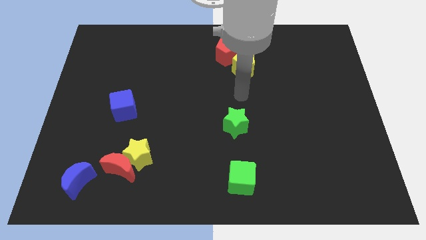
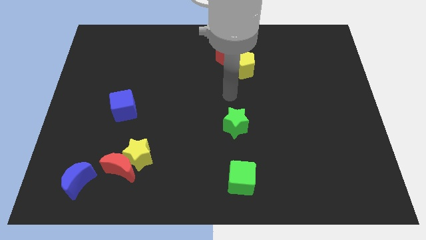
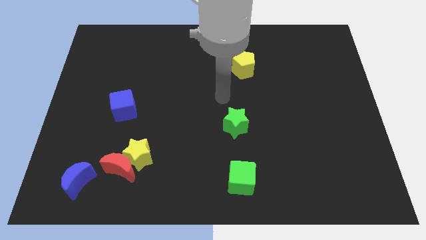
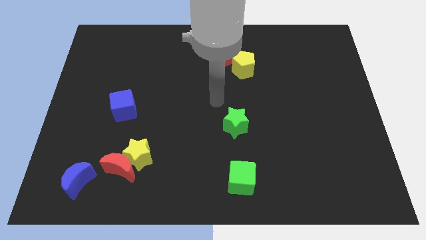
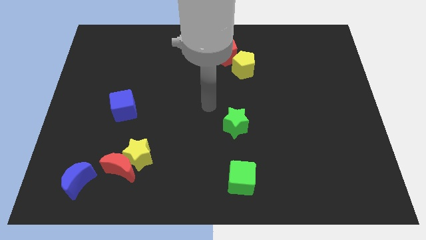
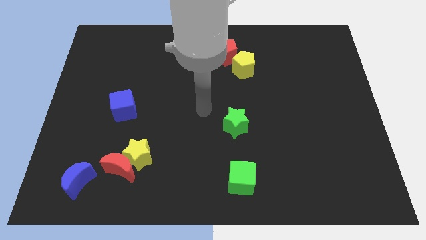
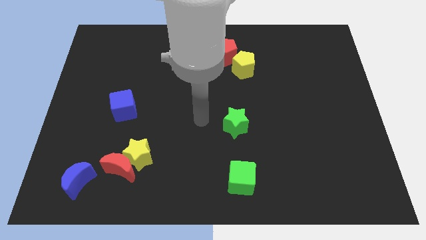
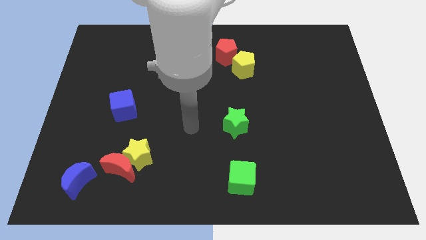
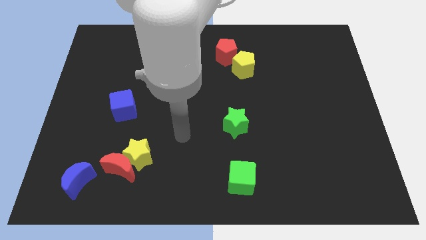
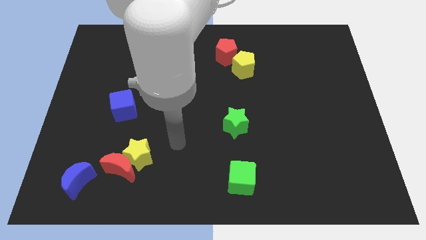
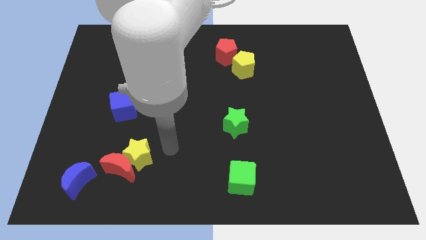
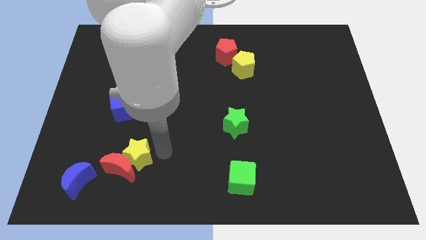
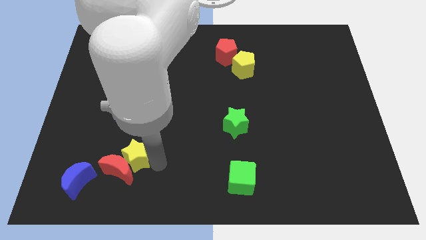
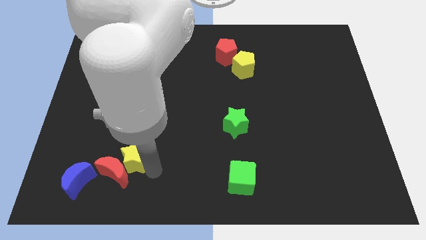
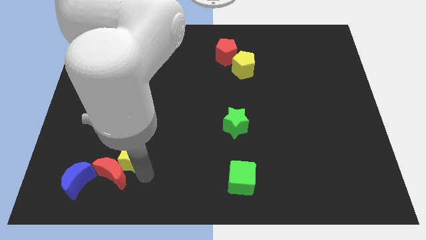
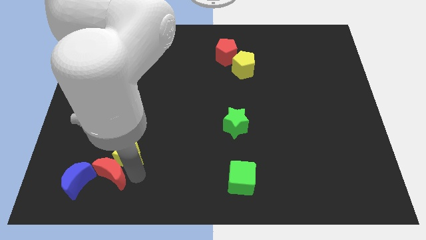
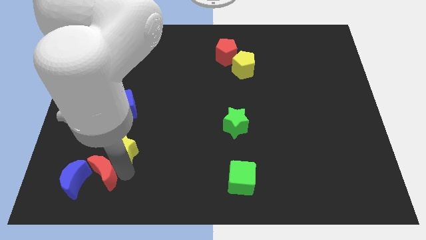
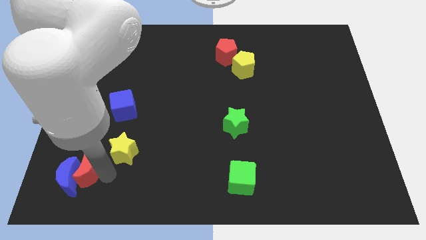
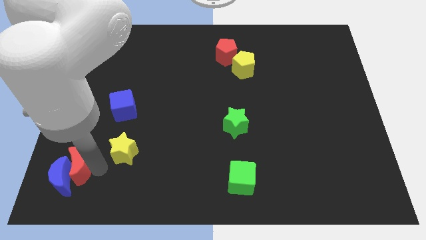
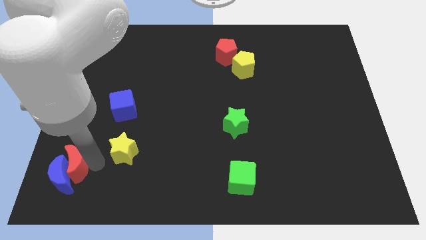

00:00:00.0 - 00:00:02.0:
move the yellow star away from the red moon

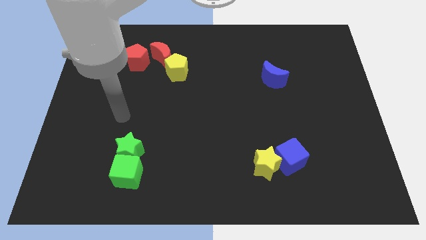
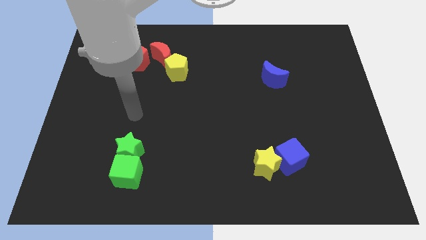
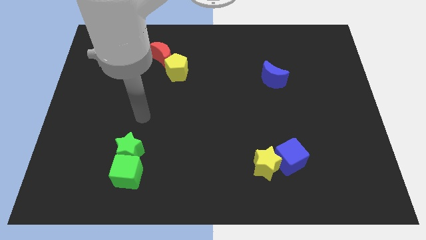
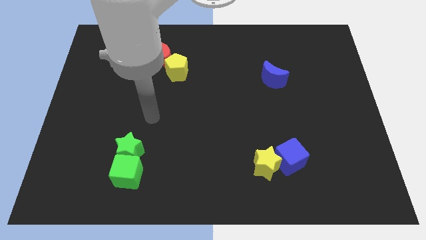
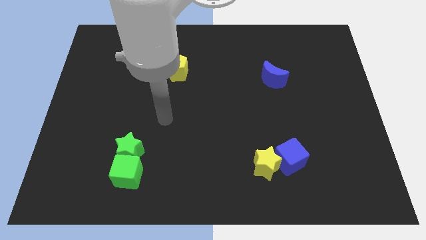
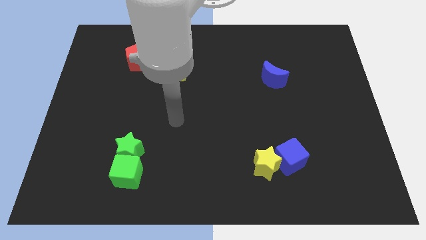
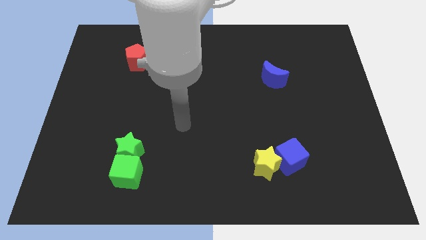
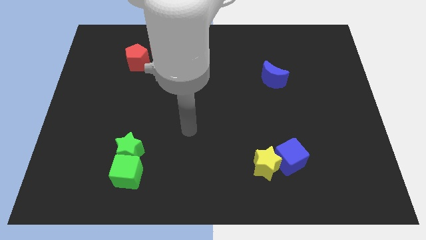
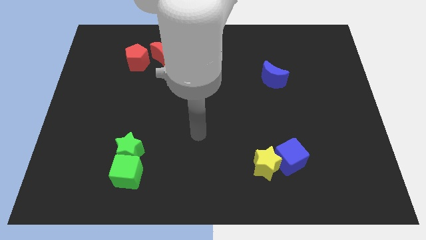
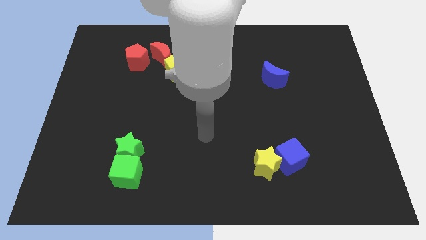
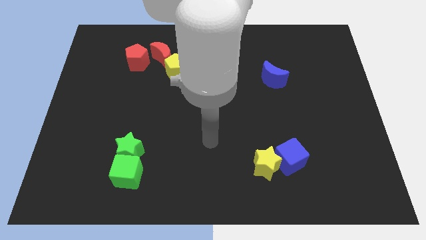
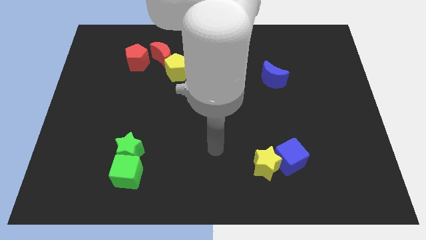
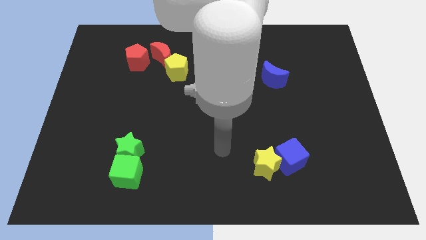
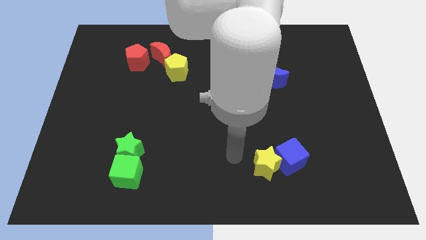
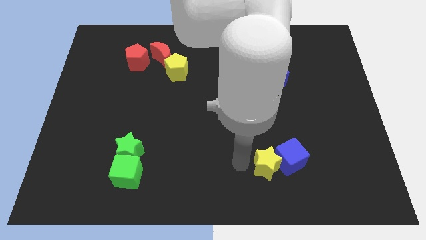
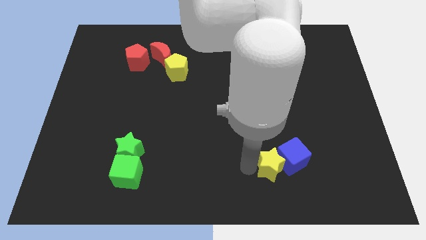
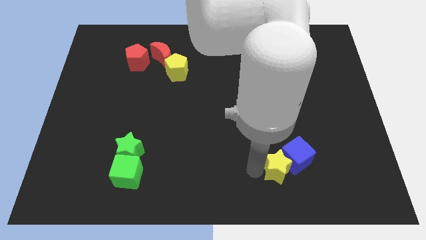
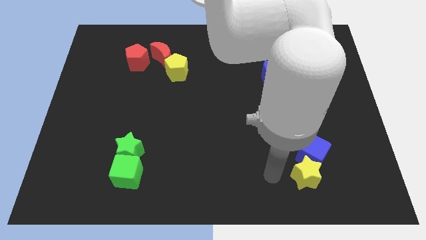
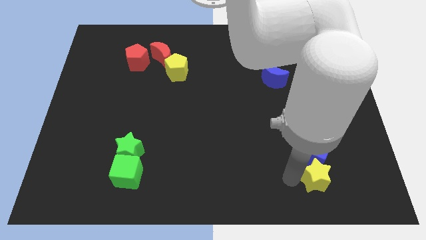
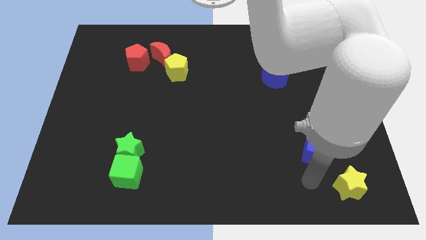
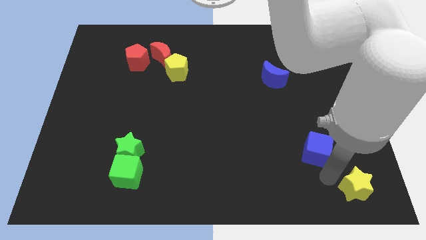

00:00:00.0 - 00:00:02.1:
pull the blue cube apart from the yellow star

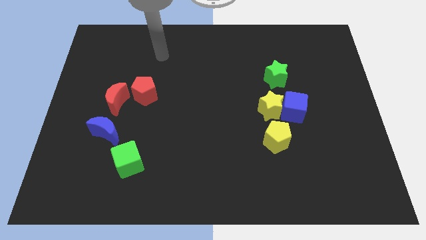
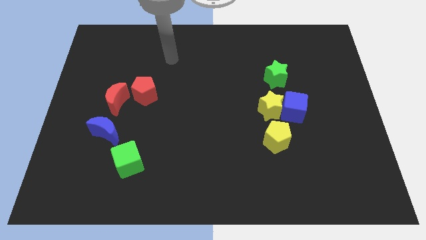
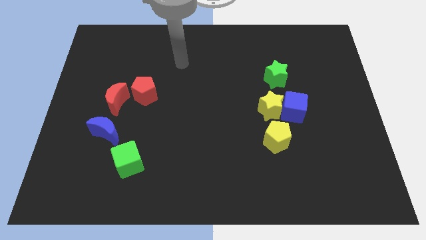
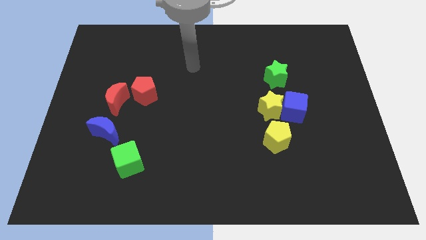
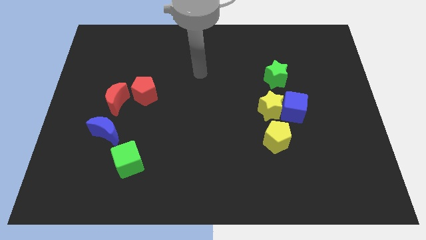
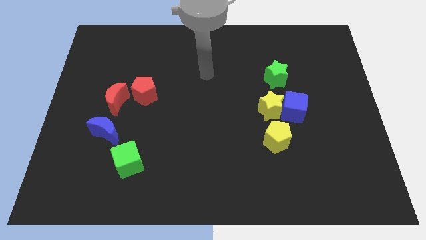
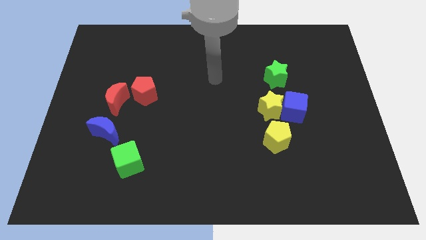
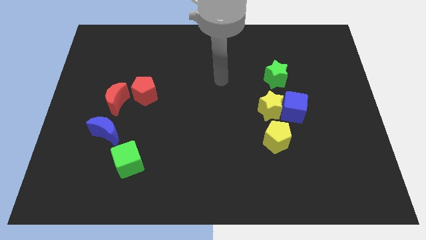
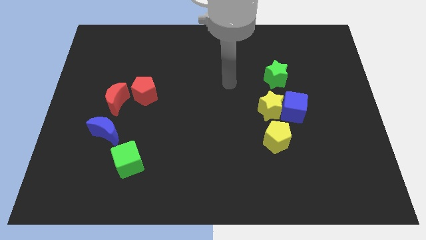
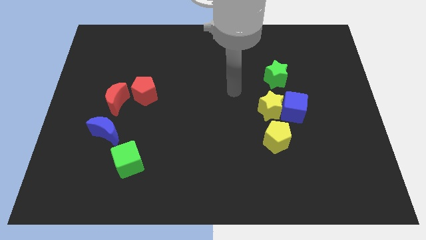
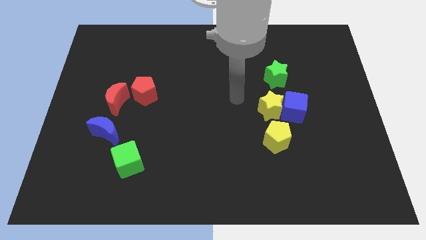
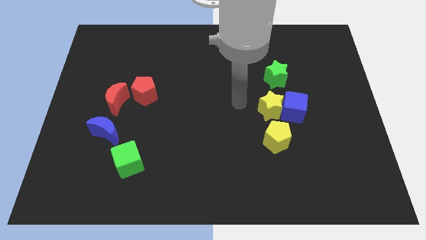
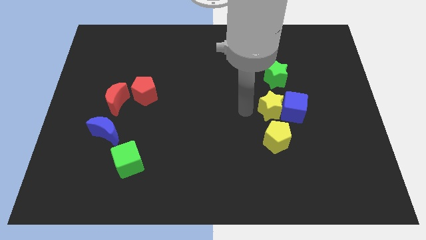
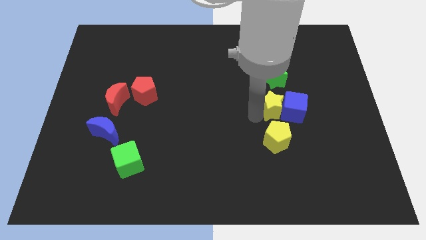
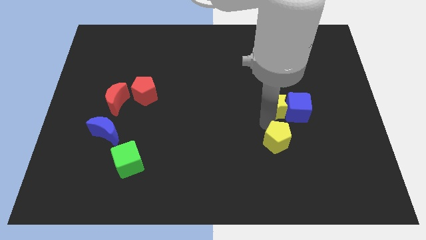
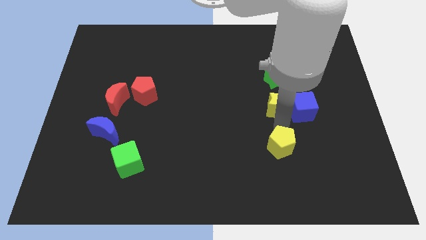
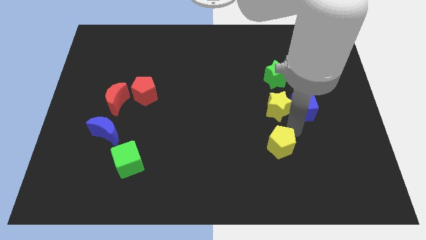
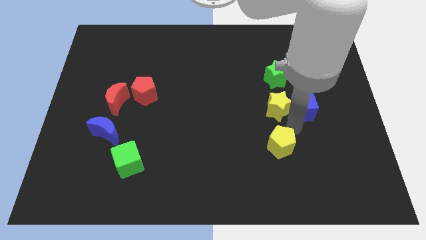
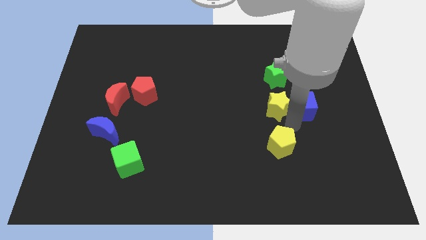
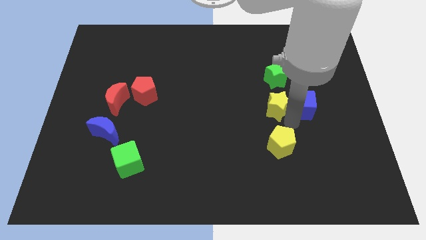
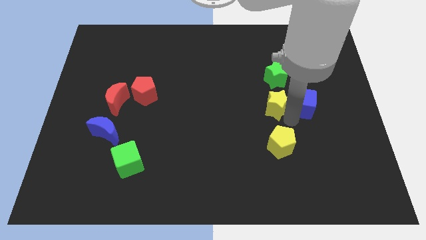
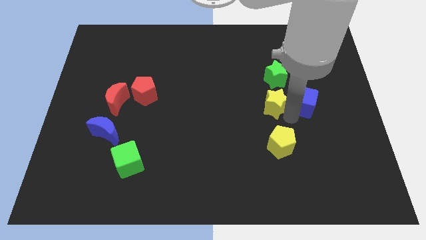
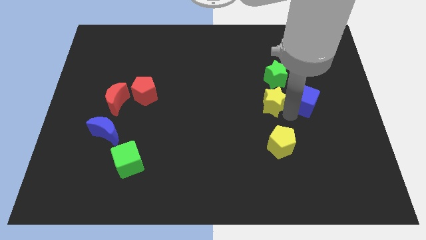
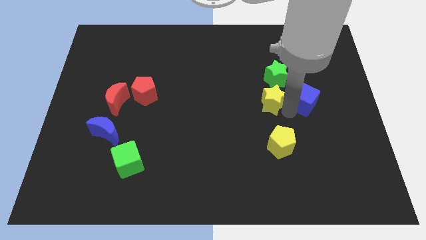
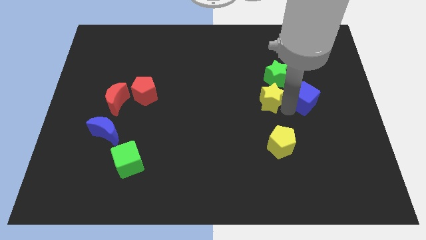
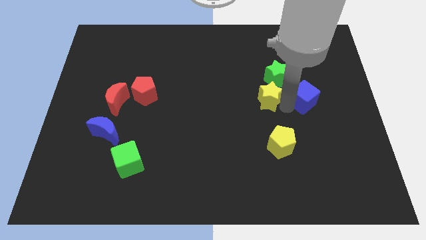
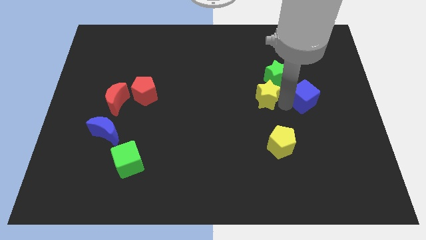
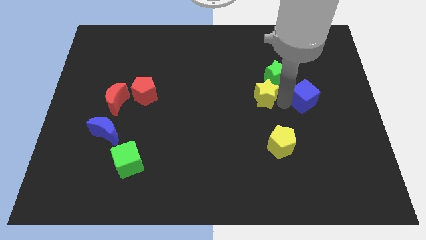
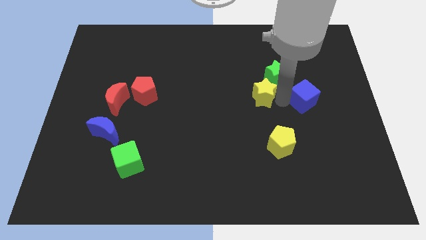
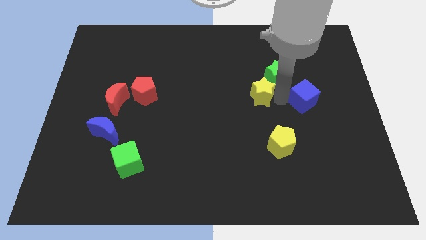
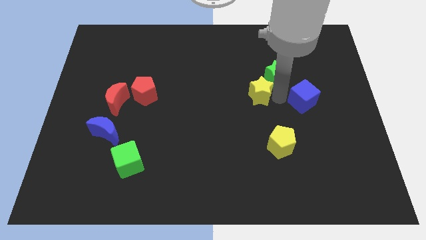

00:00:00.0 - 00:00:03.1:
separate the yellow star from the blue cube and yellow pentagon

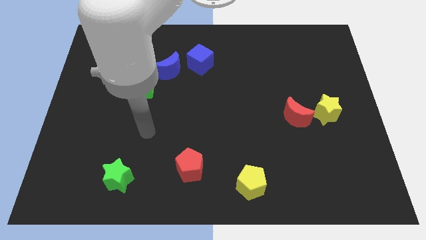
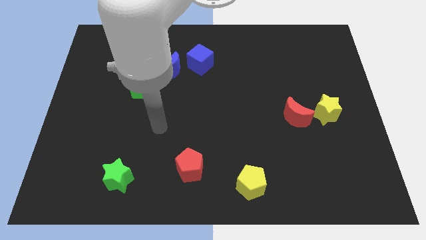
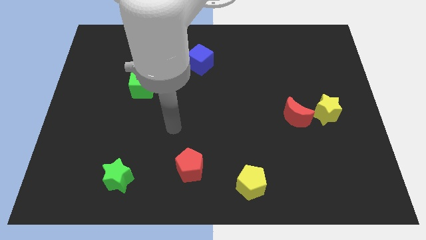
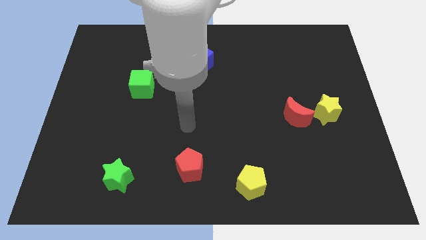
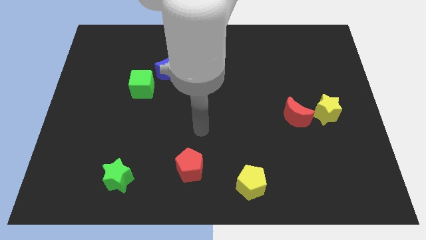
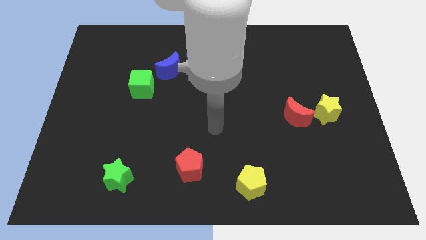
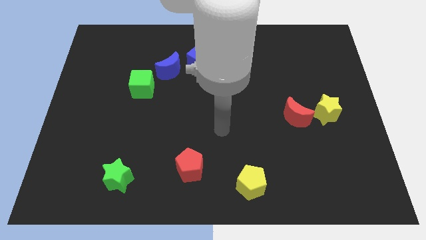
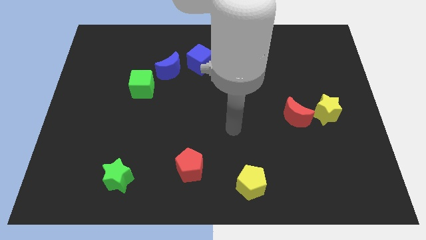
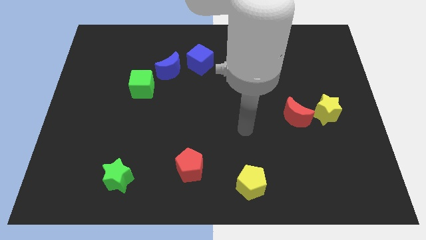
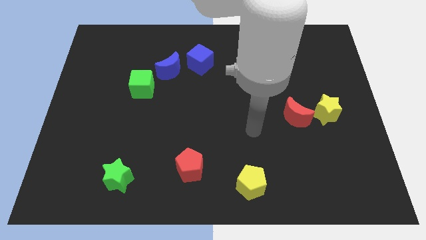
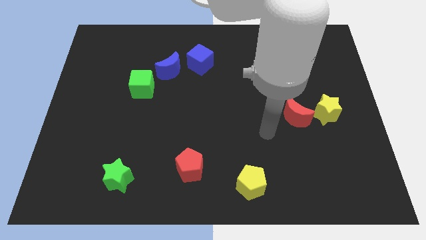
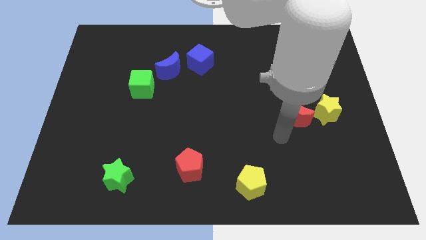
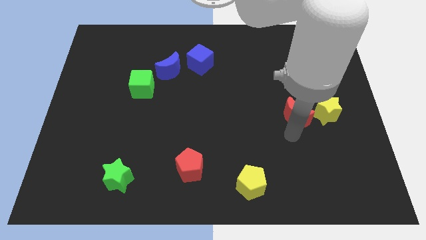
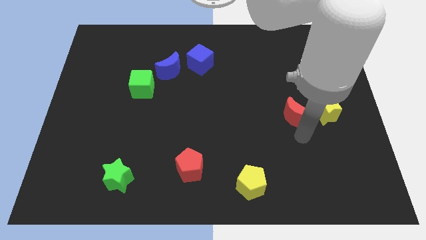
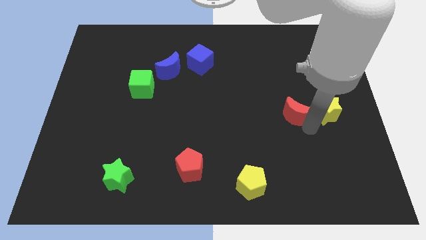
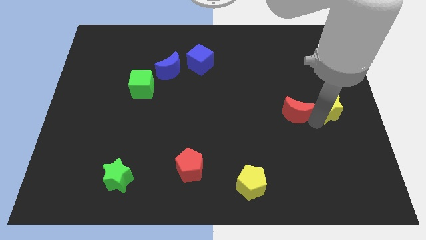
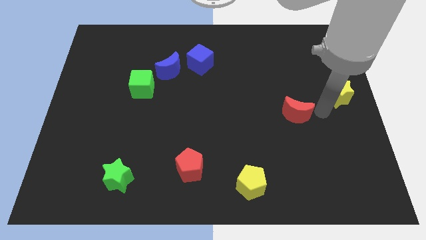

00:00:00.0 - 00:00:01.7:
separate the red moon from the yellow star

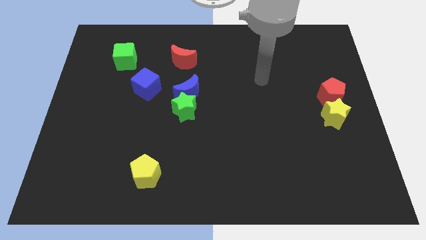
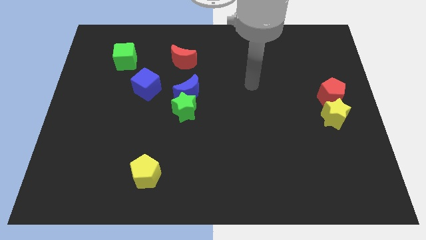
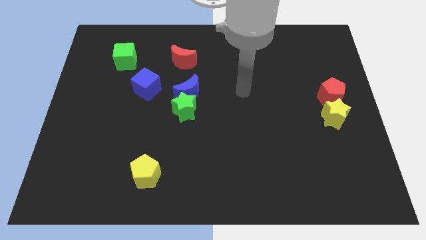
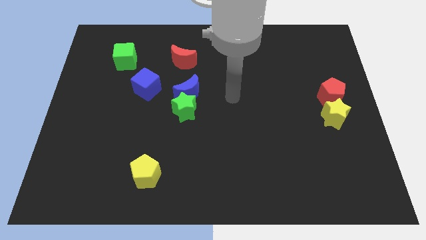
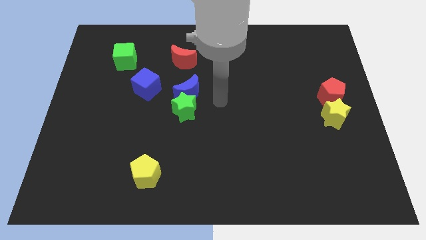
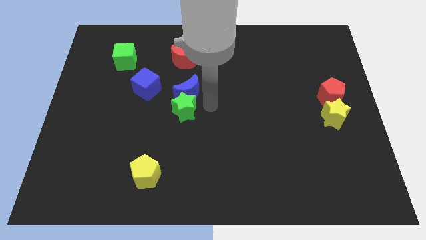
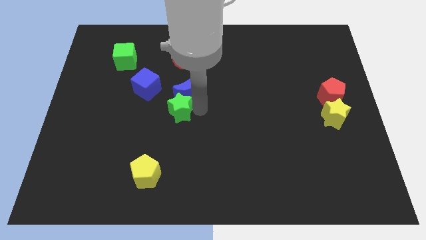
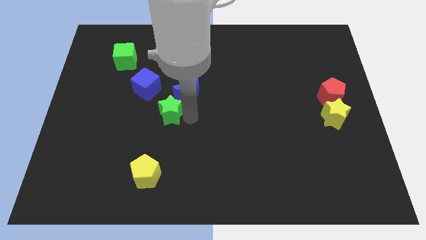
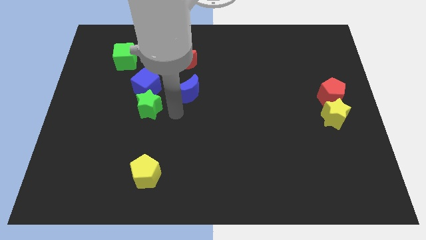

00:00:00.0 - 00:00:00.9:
move the blue moon away from the green star
